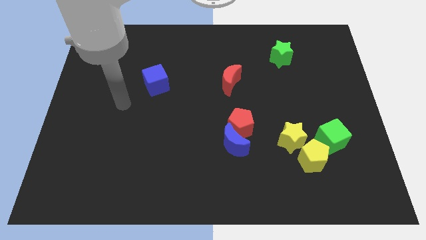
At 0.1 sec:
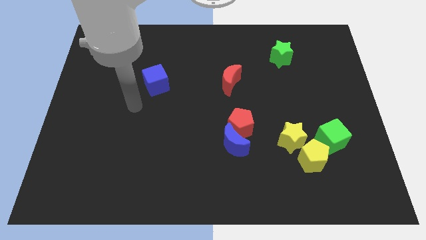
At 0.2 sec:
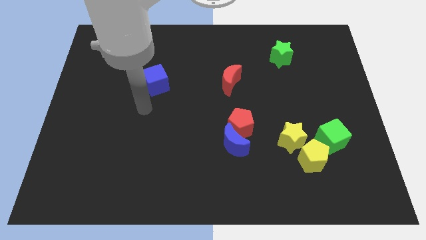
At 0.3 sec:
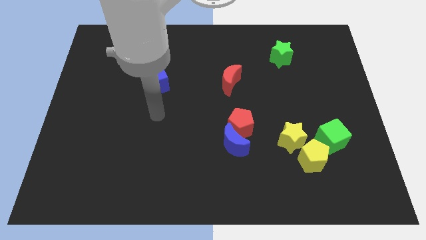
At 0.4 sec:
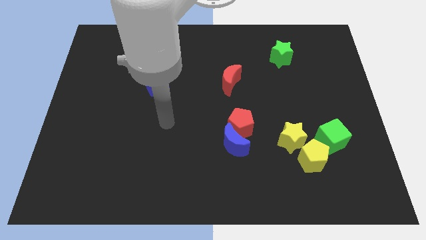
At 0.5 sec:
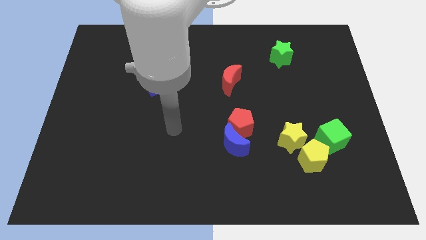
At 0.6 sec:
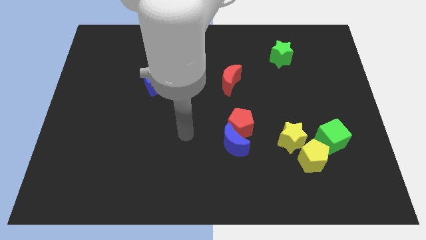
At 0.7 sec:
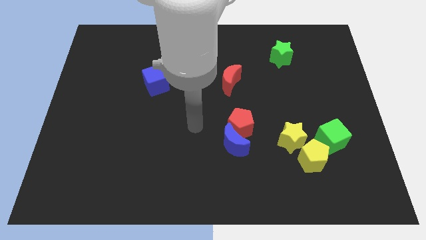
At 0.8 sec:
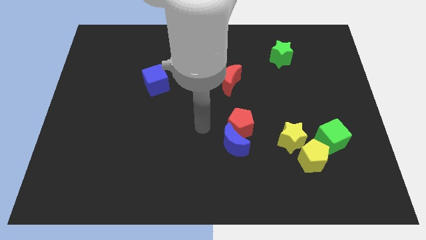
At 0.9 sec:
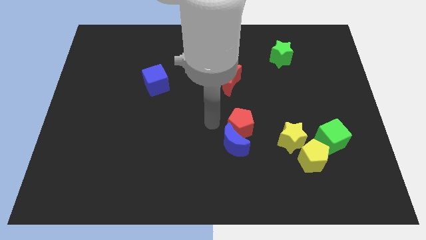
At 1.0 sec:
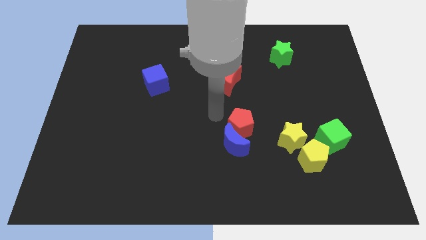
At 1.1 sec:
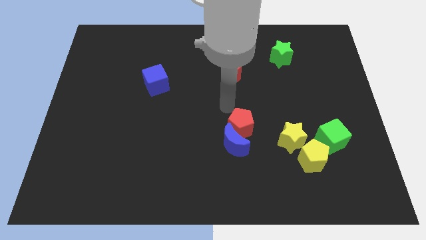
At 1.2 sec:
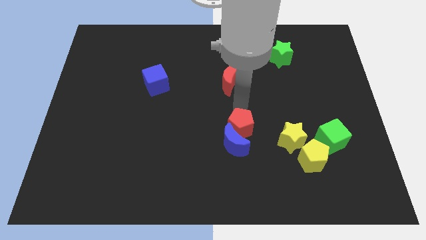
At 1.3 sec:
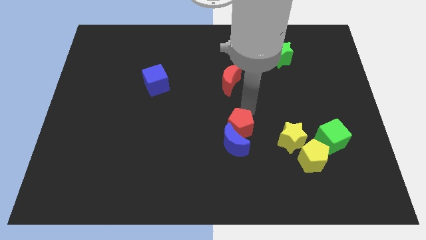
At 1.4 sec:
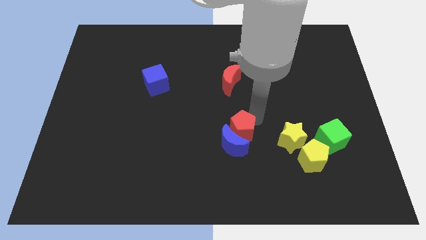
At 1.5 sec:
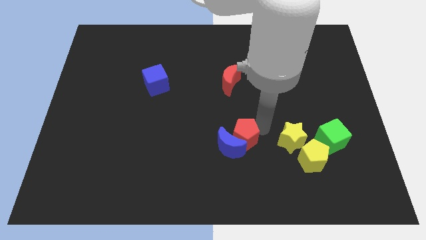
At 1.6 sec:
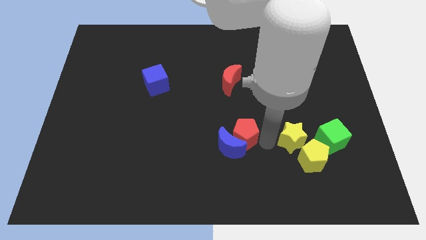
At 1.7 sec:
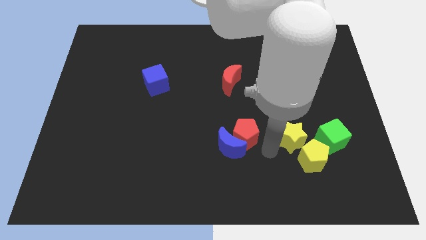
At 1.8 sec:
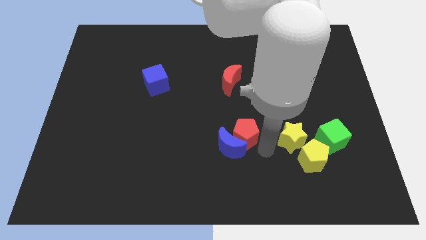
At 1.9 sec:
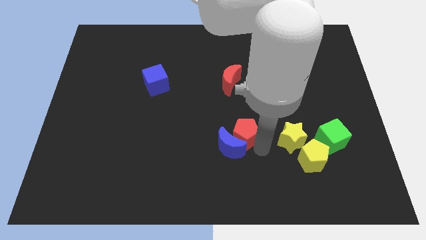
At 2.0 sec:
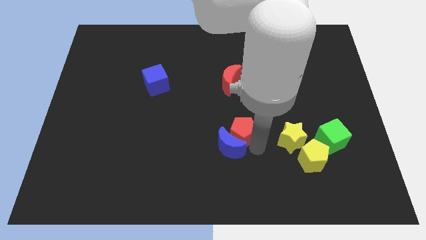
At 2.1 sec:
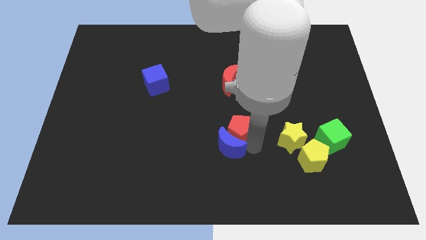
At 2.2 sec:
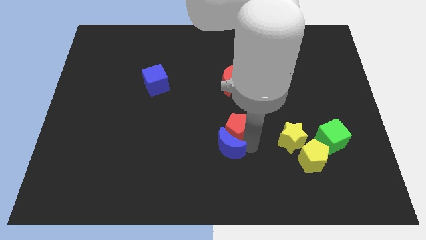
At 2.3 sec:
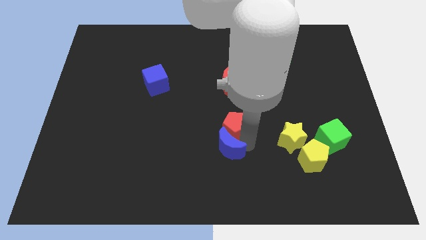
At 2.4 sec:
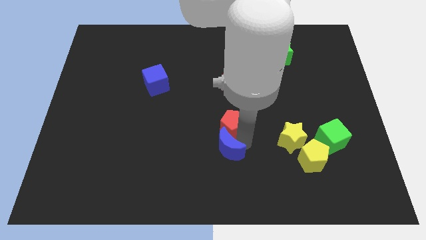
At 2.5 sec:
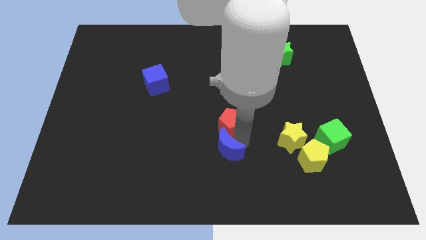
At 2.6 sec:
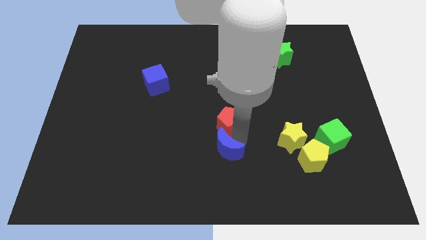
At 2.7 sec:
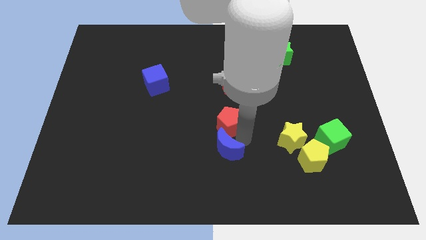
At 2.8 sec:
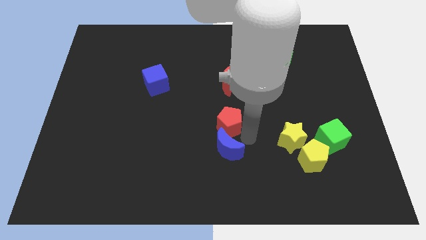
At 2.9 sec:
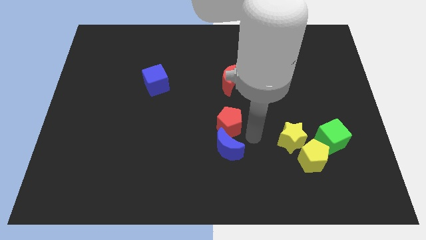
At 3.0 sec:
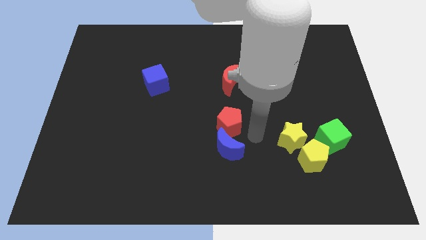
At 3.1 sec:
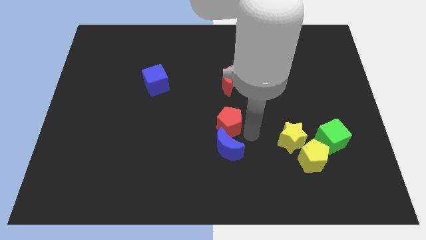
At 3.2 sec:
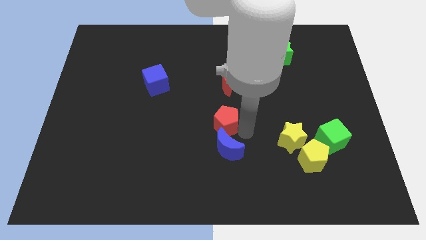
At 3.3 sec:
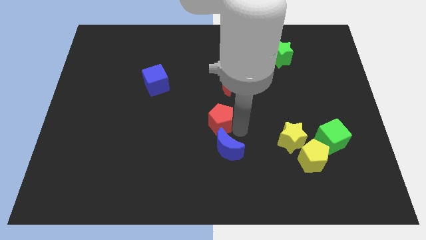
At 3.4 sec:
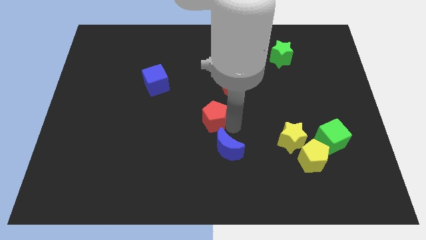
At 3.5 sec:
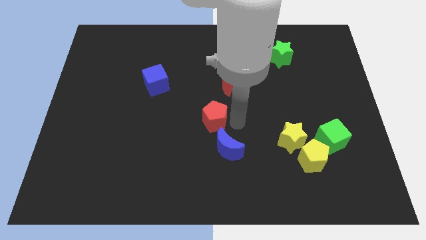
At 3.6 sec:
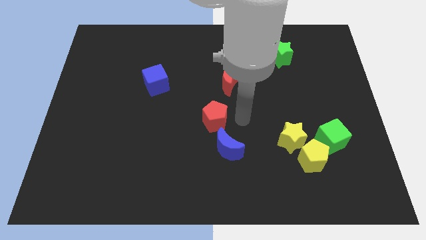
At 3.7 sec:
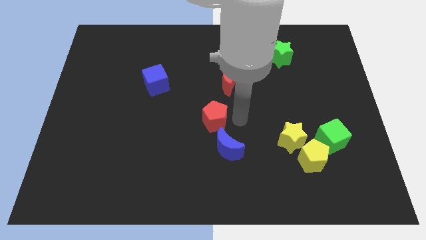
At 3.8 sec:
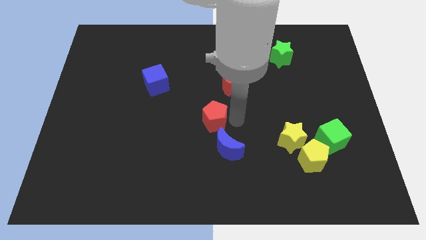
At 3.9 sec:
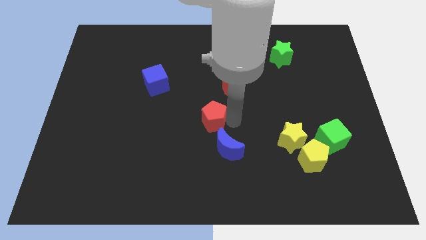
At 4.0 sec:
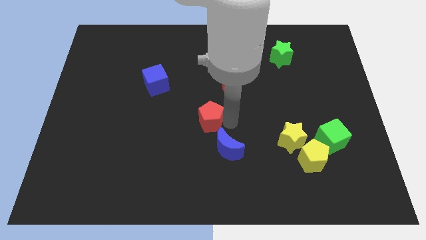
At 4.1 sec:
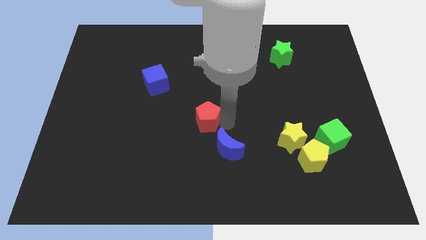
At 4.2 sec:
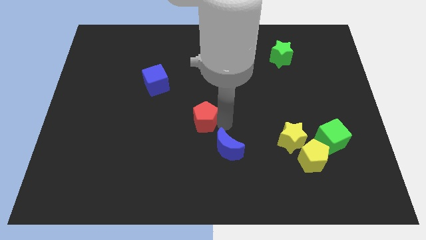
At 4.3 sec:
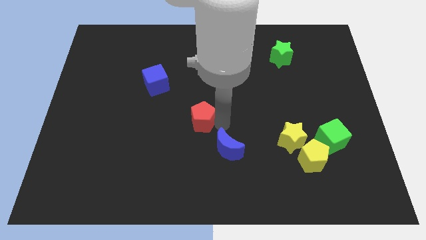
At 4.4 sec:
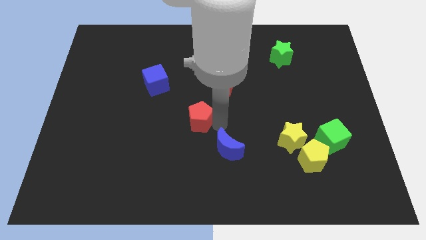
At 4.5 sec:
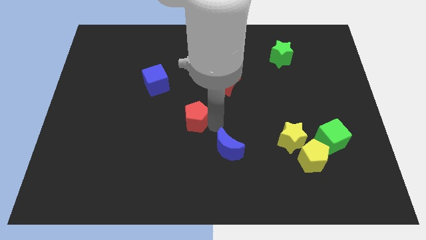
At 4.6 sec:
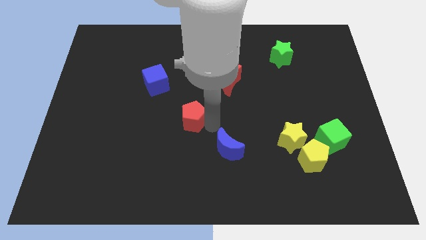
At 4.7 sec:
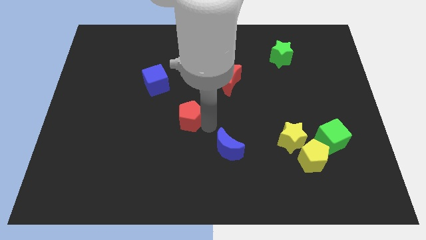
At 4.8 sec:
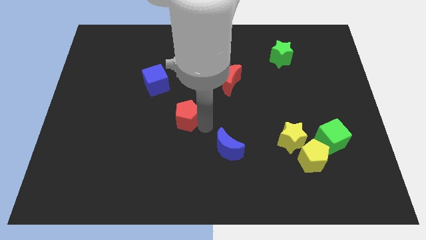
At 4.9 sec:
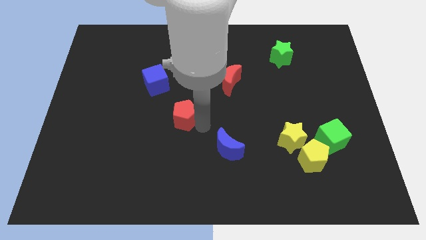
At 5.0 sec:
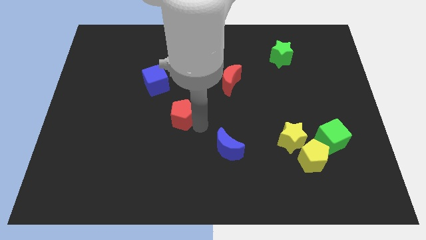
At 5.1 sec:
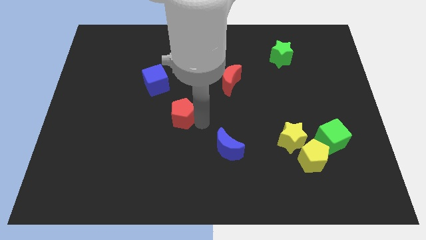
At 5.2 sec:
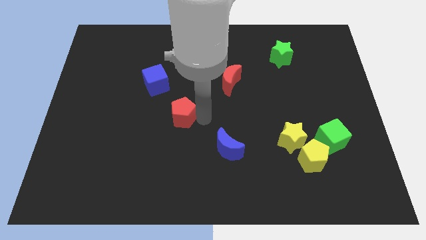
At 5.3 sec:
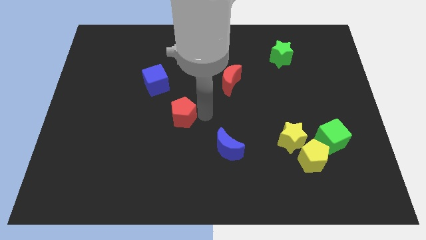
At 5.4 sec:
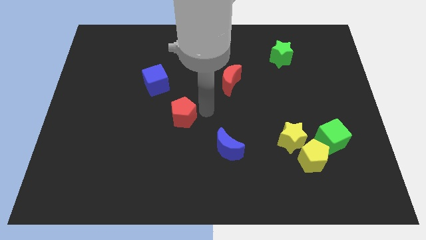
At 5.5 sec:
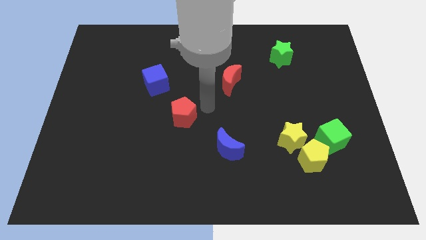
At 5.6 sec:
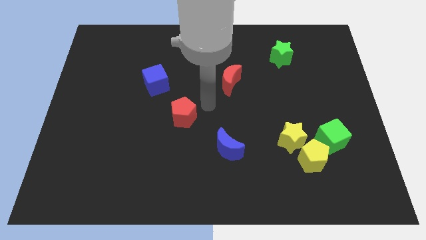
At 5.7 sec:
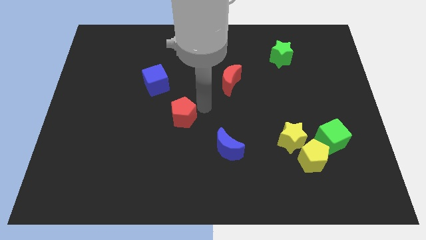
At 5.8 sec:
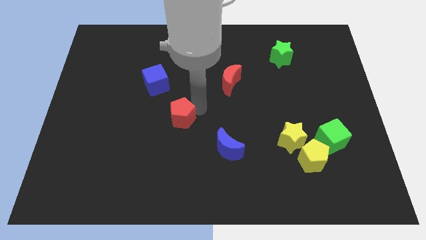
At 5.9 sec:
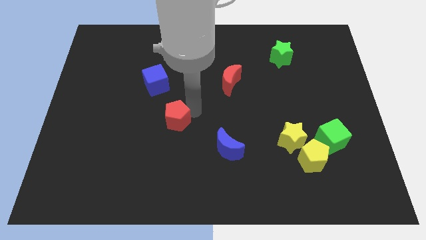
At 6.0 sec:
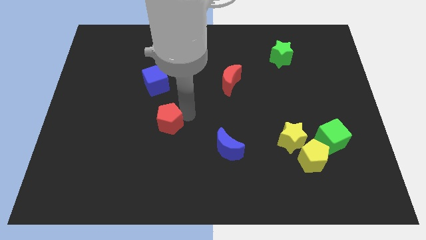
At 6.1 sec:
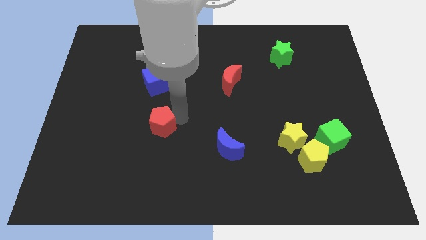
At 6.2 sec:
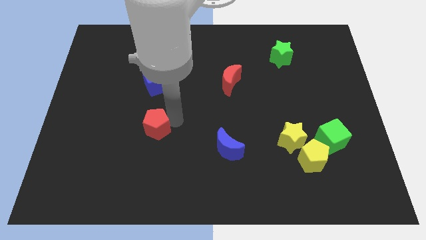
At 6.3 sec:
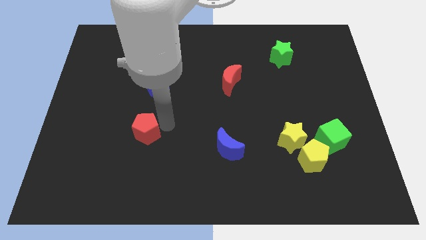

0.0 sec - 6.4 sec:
push the red pentagon to the left

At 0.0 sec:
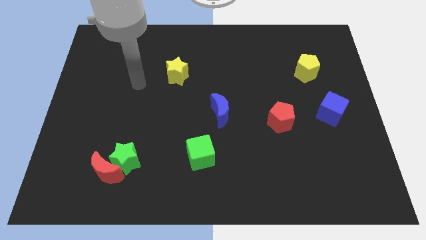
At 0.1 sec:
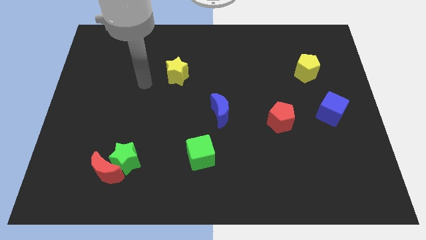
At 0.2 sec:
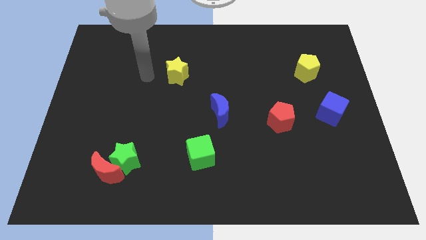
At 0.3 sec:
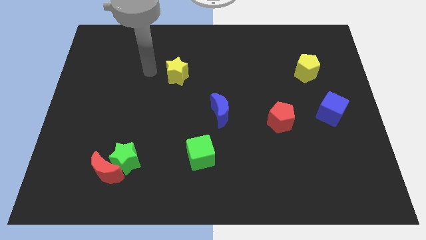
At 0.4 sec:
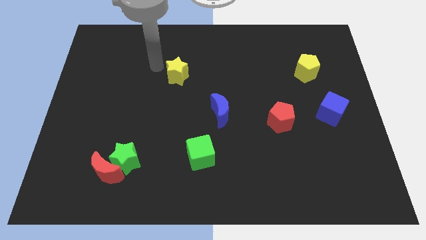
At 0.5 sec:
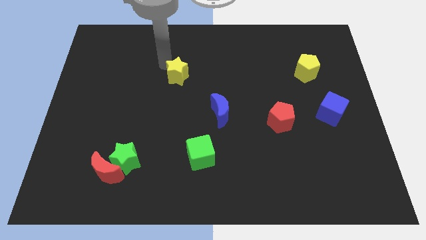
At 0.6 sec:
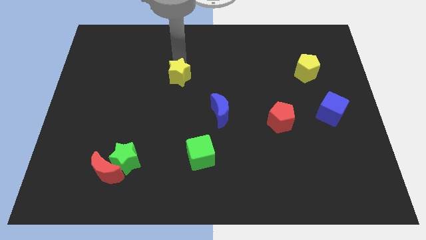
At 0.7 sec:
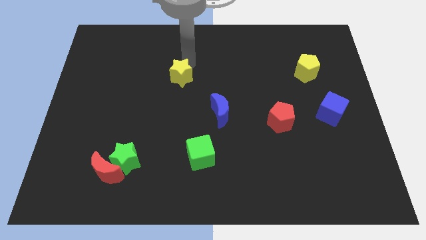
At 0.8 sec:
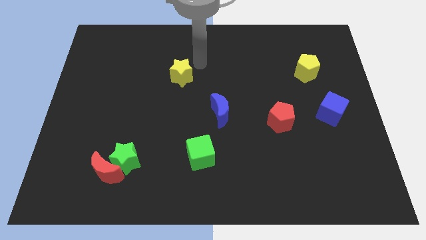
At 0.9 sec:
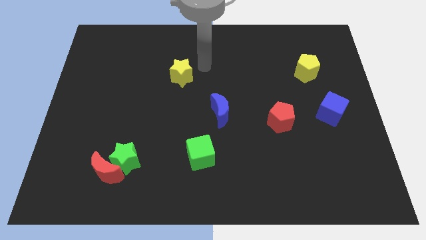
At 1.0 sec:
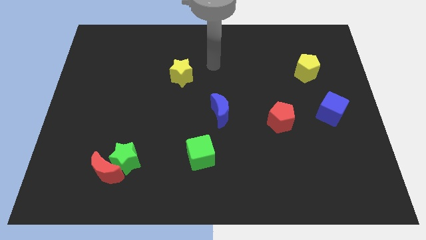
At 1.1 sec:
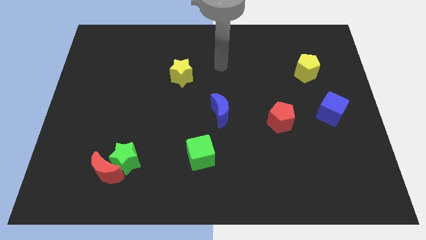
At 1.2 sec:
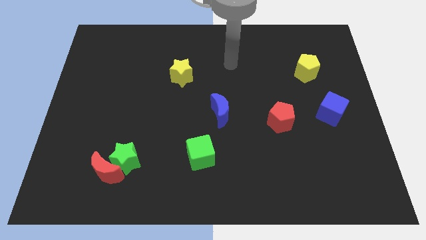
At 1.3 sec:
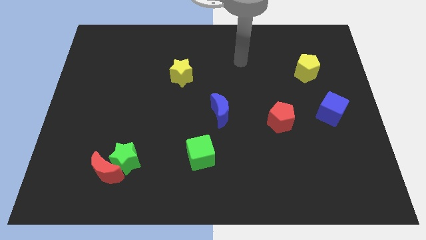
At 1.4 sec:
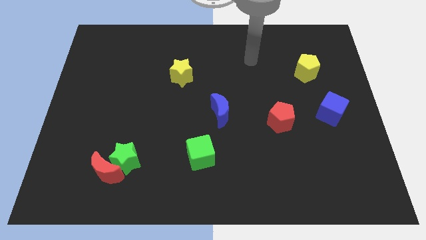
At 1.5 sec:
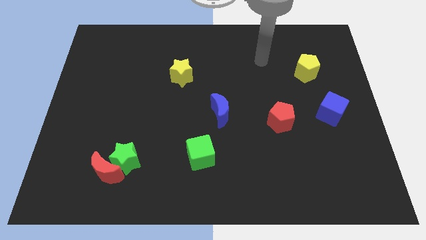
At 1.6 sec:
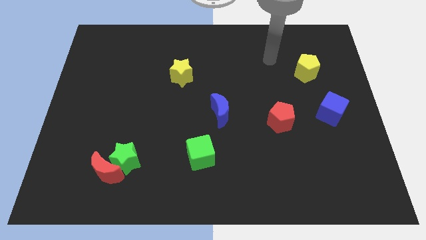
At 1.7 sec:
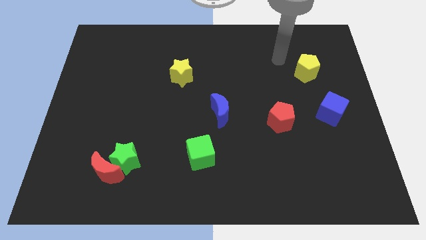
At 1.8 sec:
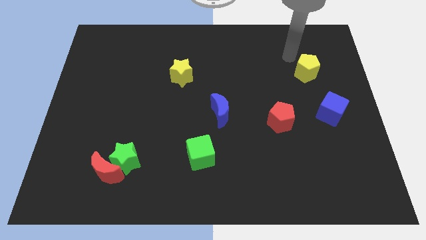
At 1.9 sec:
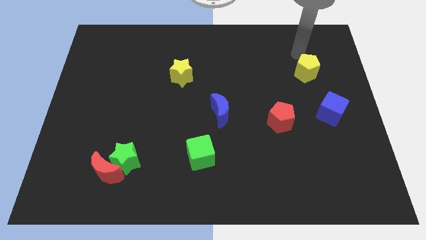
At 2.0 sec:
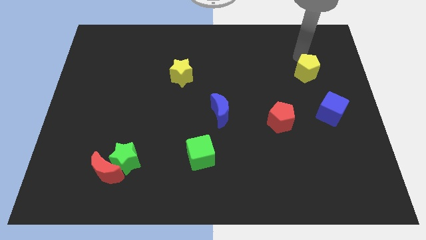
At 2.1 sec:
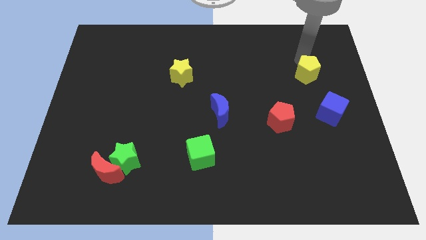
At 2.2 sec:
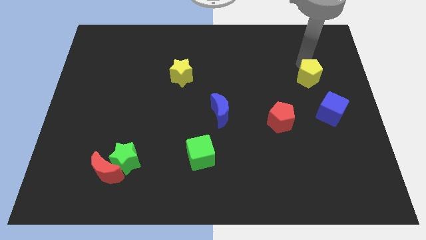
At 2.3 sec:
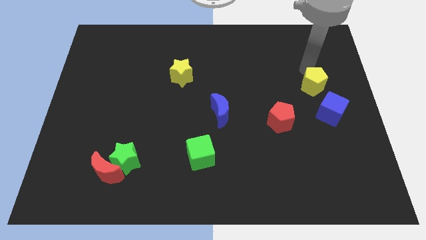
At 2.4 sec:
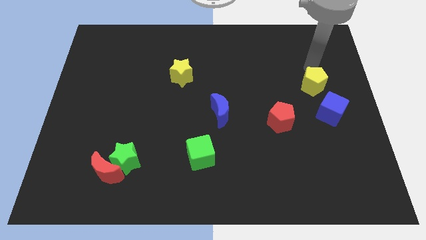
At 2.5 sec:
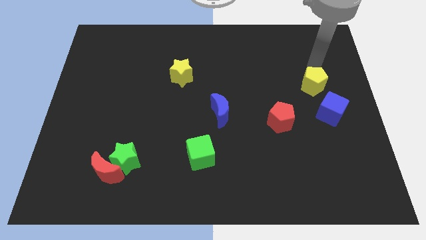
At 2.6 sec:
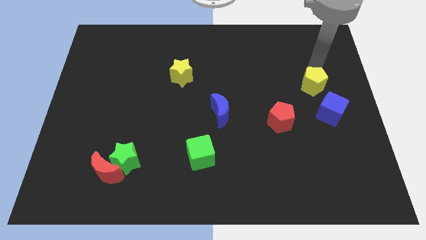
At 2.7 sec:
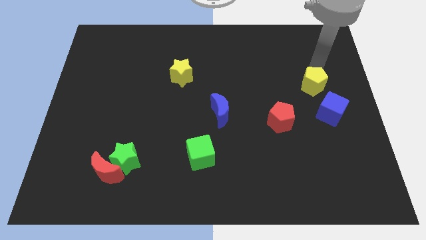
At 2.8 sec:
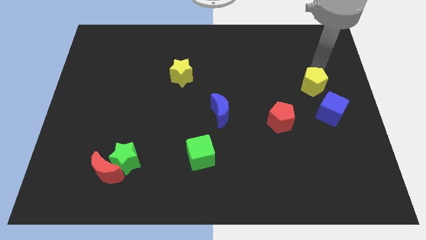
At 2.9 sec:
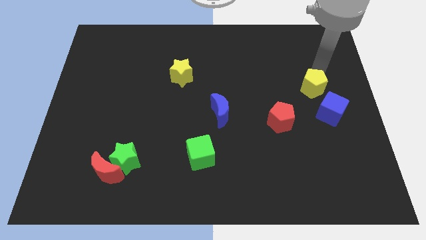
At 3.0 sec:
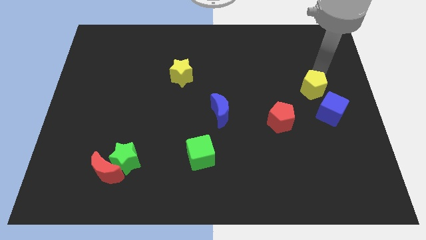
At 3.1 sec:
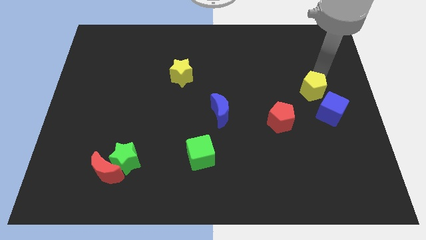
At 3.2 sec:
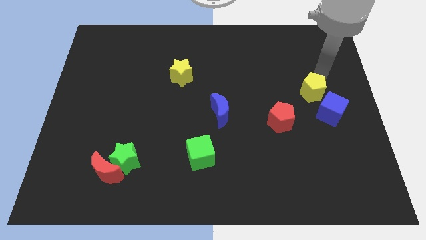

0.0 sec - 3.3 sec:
slightly move the yellow pentagon downwards
